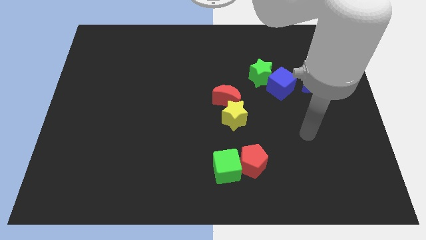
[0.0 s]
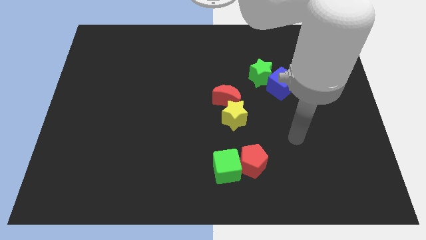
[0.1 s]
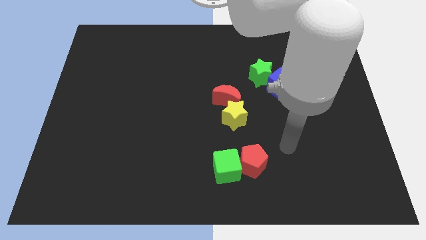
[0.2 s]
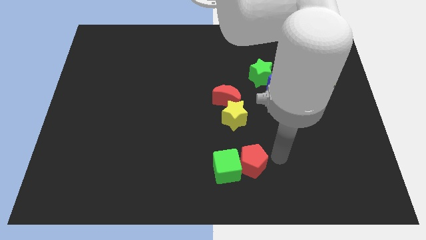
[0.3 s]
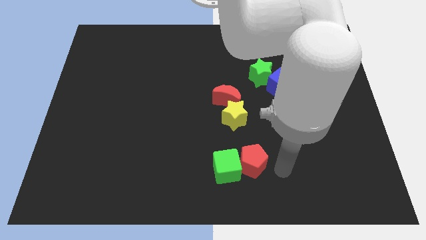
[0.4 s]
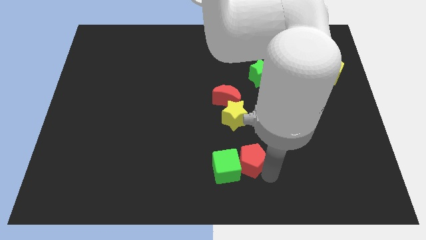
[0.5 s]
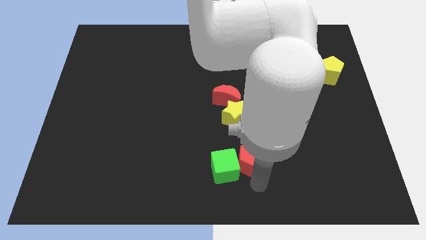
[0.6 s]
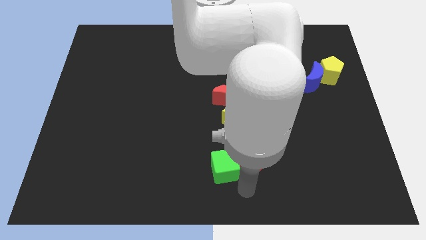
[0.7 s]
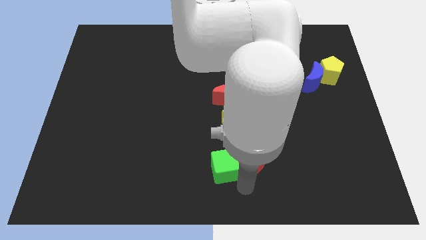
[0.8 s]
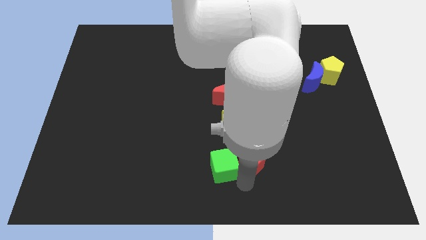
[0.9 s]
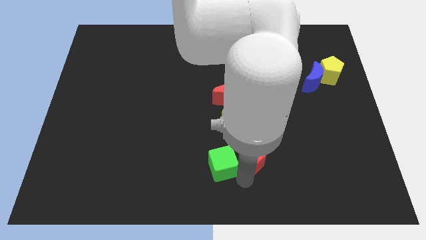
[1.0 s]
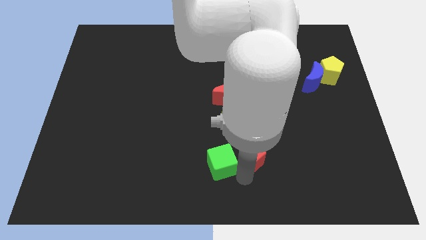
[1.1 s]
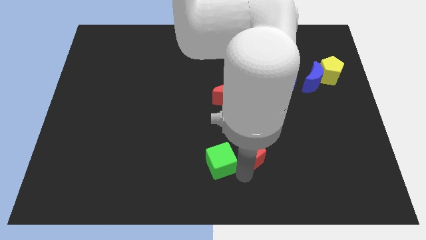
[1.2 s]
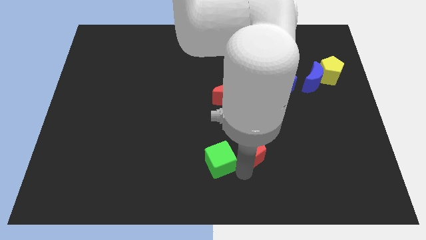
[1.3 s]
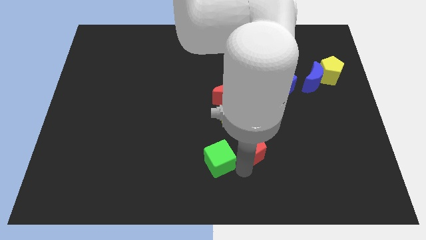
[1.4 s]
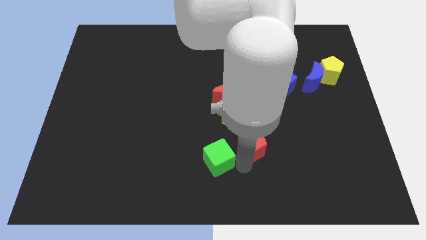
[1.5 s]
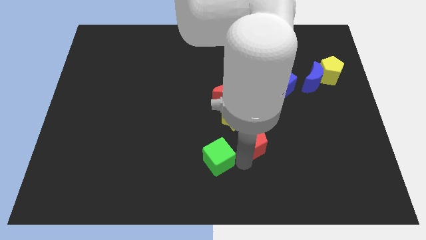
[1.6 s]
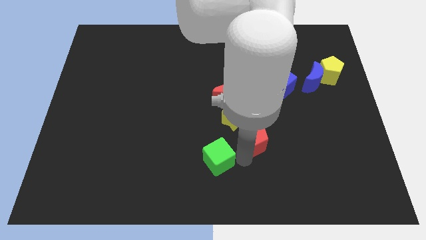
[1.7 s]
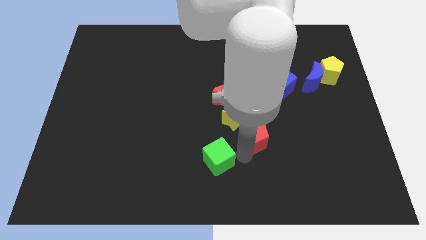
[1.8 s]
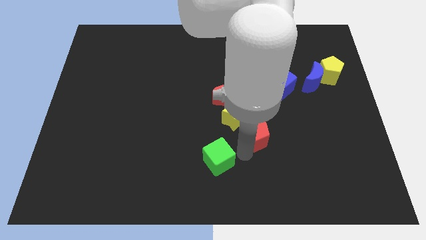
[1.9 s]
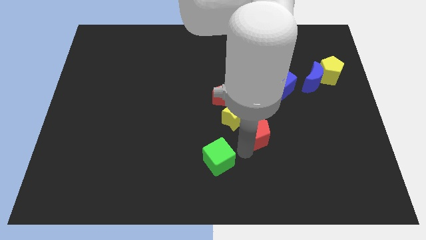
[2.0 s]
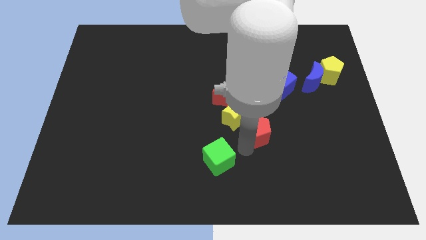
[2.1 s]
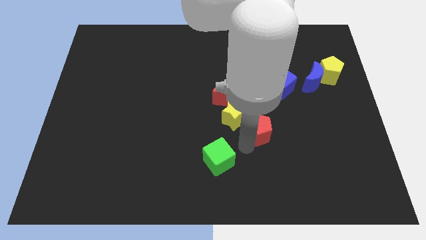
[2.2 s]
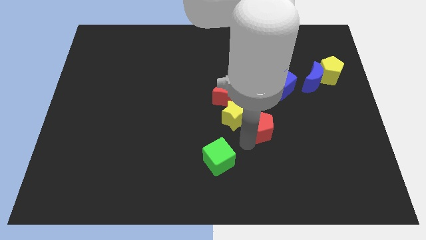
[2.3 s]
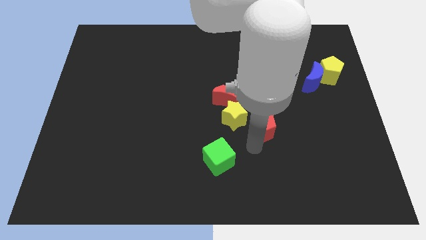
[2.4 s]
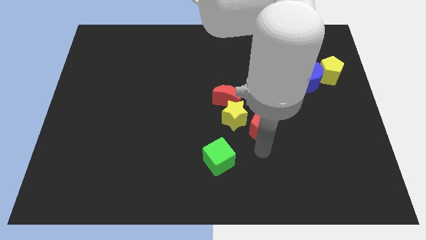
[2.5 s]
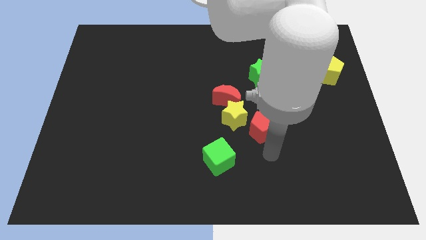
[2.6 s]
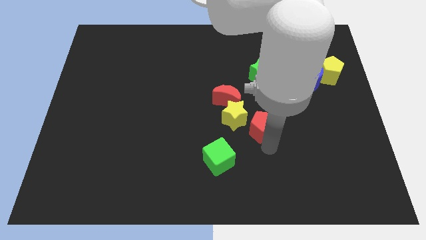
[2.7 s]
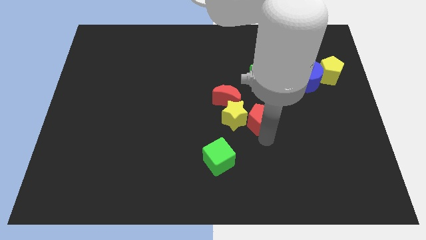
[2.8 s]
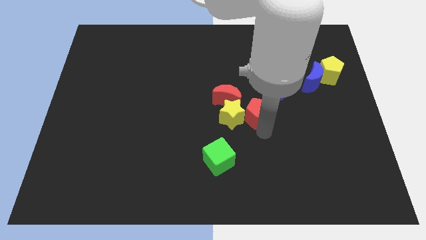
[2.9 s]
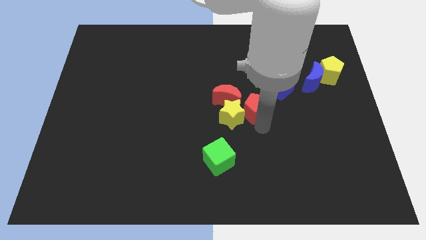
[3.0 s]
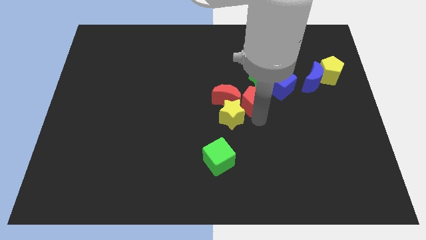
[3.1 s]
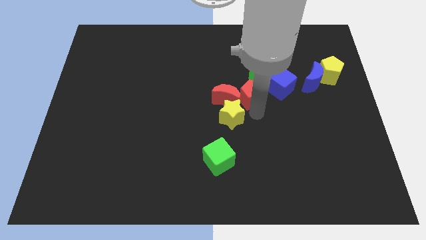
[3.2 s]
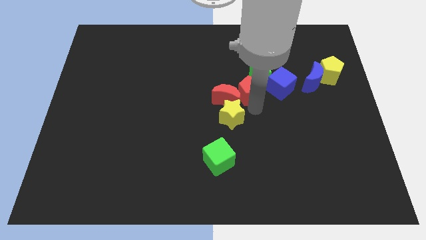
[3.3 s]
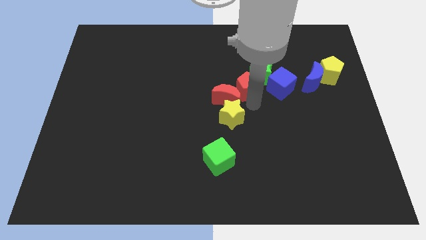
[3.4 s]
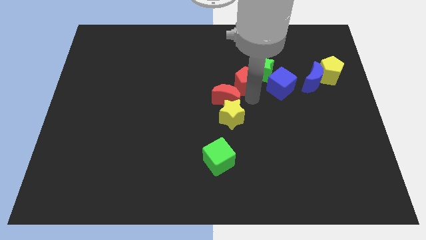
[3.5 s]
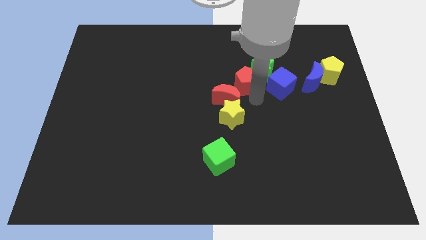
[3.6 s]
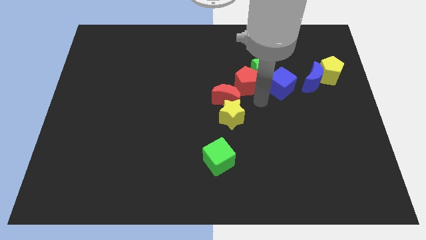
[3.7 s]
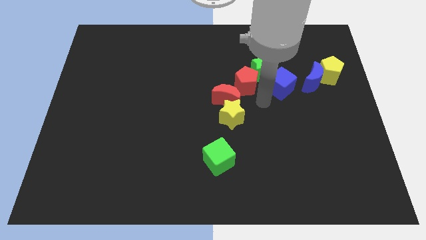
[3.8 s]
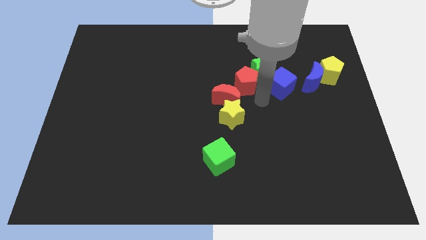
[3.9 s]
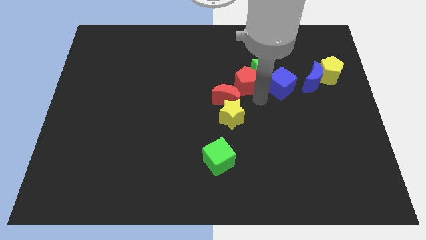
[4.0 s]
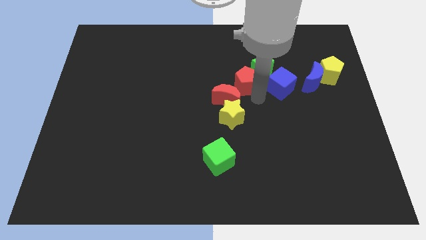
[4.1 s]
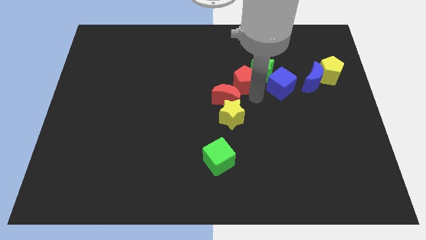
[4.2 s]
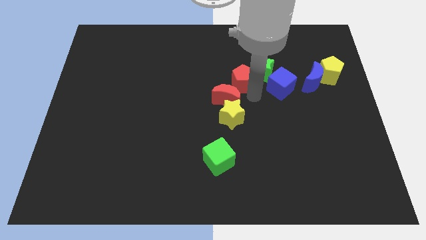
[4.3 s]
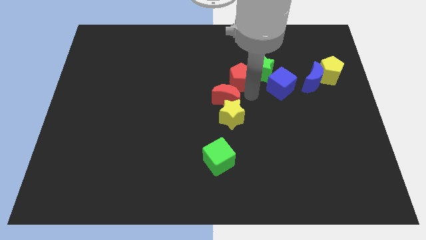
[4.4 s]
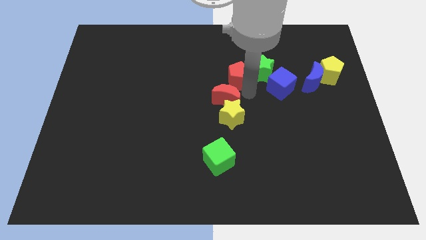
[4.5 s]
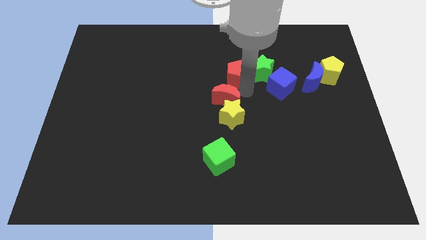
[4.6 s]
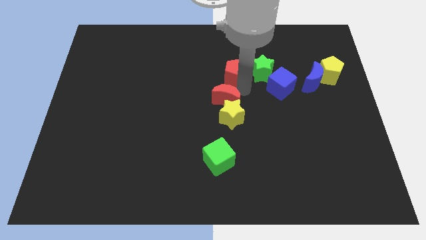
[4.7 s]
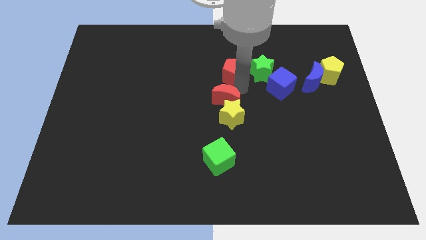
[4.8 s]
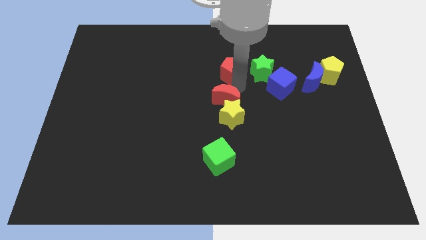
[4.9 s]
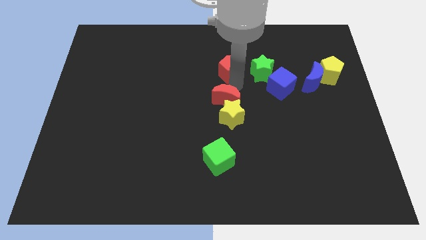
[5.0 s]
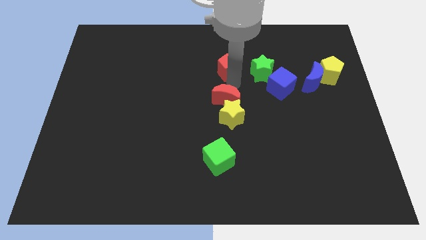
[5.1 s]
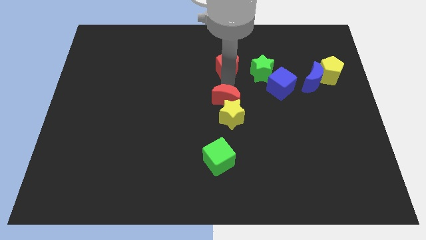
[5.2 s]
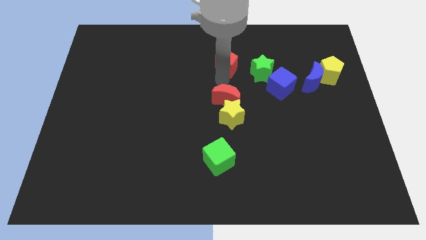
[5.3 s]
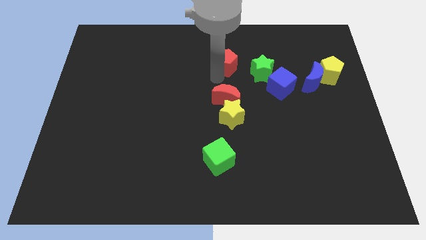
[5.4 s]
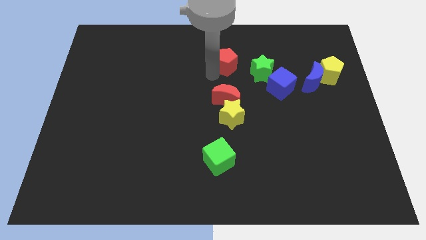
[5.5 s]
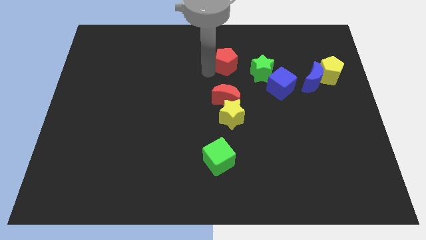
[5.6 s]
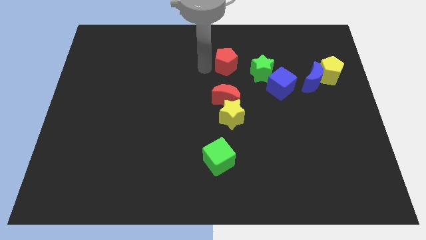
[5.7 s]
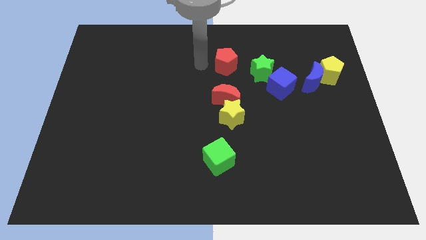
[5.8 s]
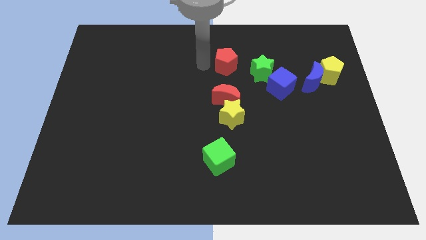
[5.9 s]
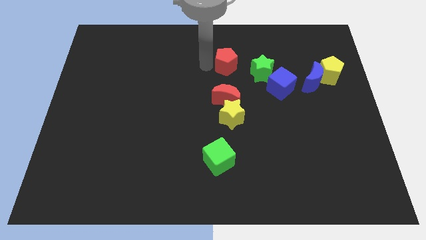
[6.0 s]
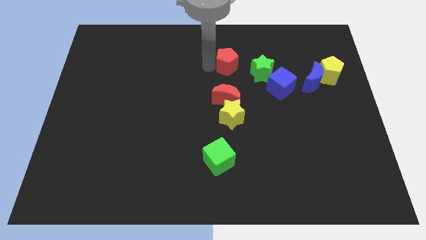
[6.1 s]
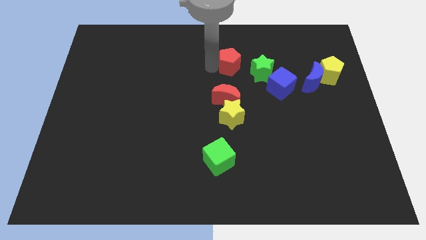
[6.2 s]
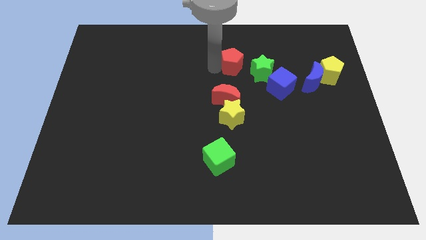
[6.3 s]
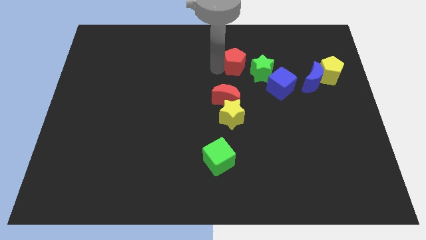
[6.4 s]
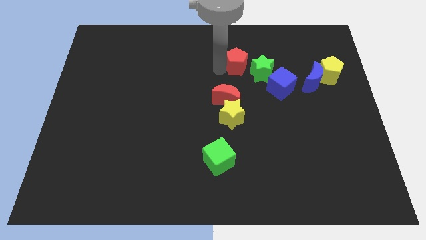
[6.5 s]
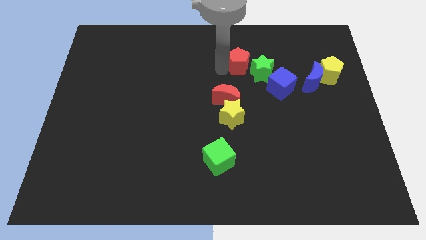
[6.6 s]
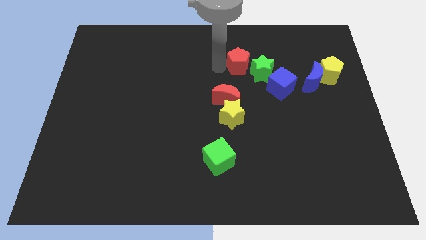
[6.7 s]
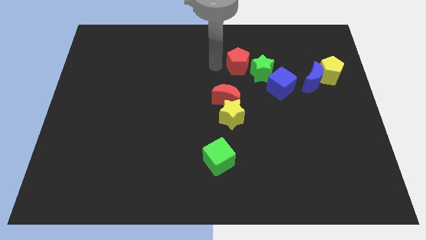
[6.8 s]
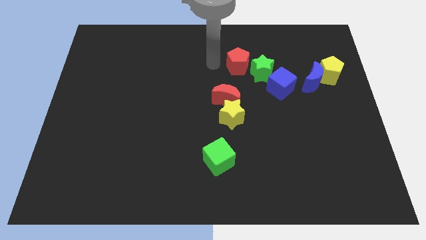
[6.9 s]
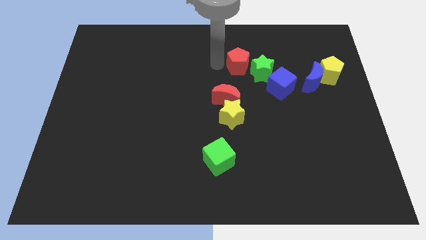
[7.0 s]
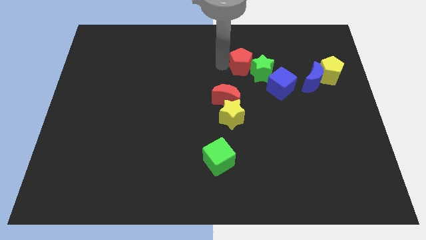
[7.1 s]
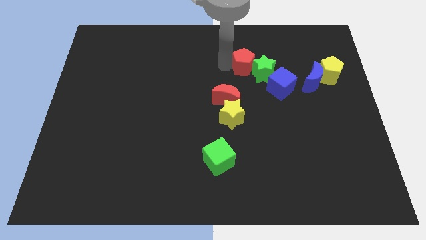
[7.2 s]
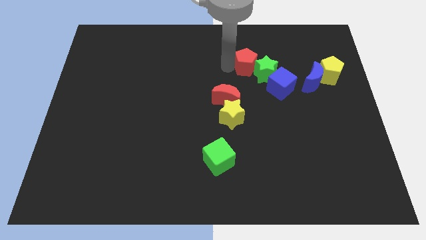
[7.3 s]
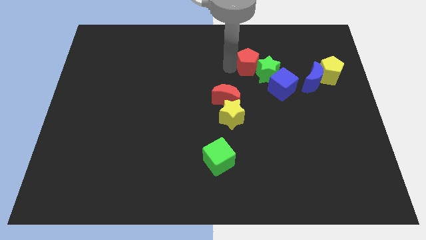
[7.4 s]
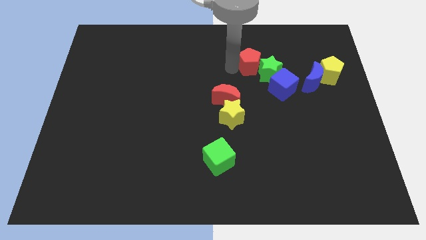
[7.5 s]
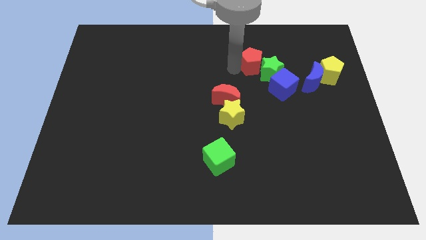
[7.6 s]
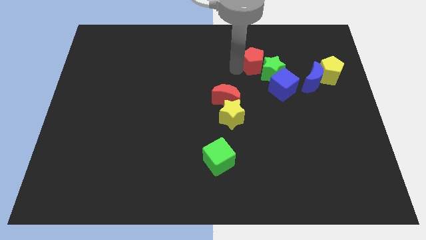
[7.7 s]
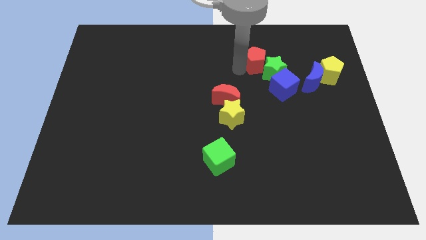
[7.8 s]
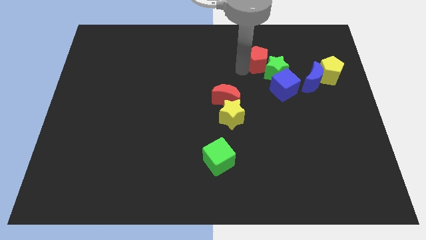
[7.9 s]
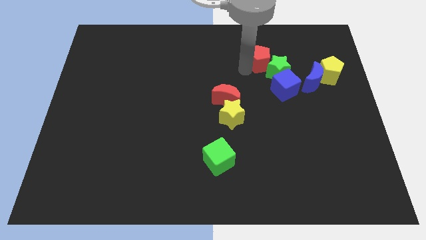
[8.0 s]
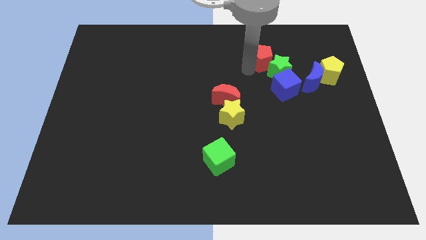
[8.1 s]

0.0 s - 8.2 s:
slide the red pentagon to the top of the blue cube
